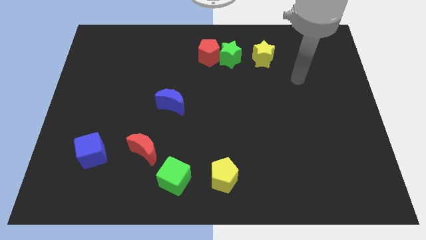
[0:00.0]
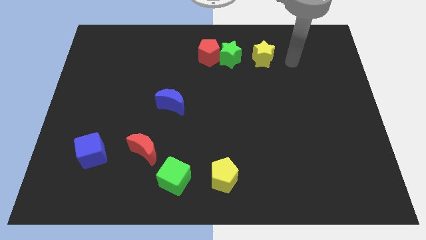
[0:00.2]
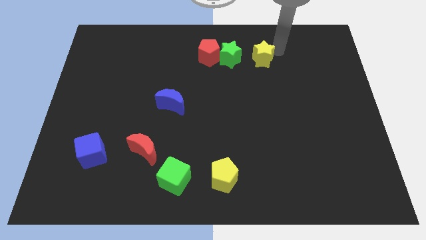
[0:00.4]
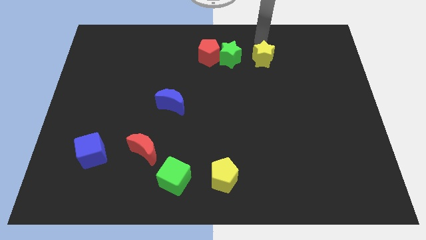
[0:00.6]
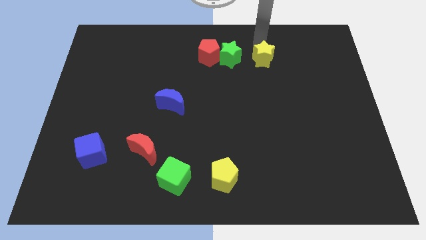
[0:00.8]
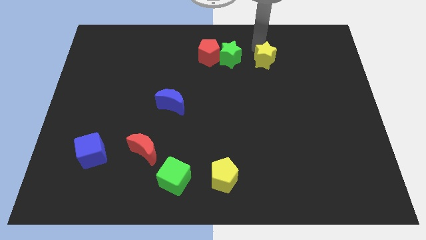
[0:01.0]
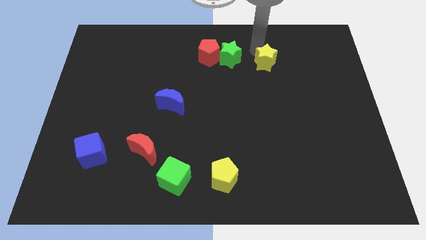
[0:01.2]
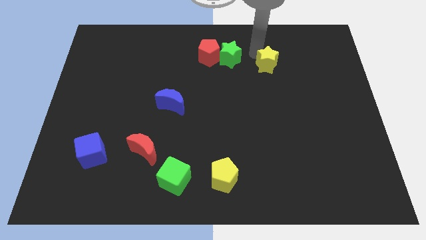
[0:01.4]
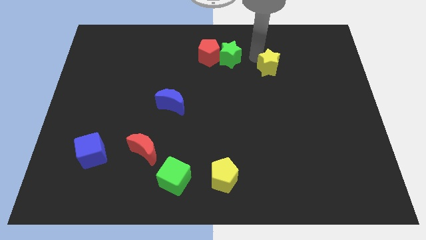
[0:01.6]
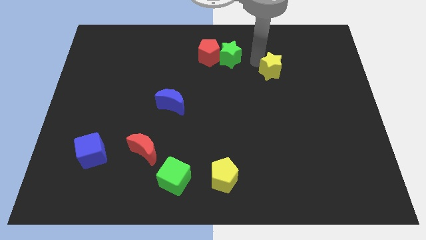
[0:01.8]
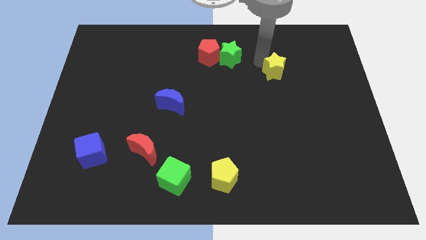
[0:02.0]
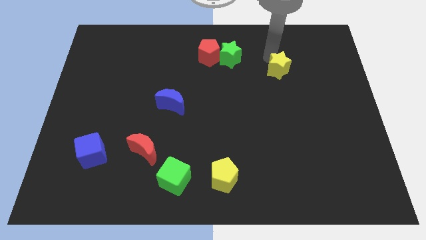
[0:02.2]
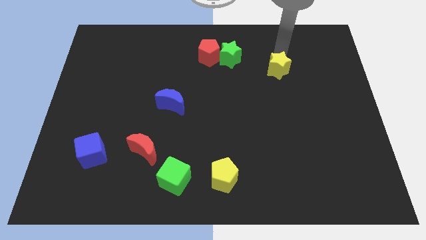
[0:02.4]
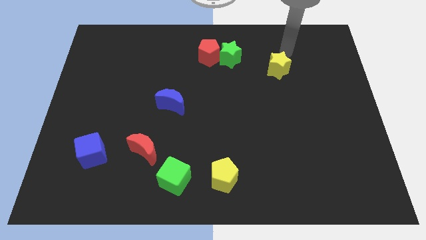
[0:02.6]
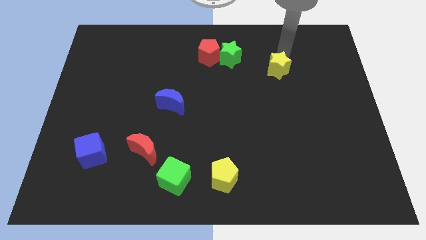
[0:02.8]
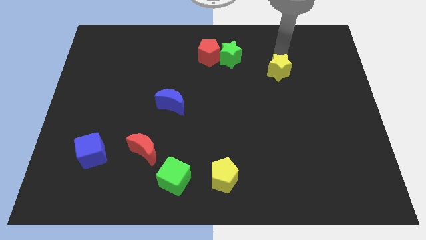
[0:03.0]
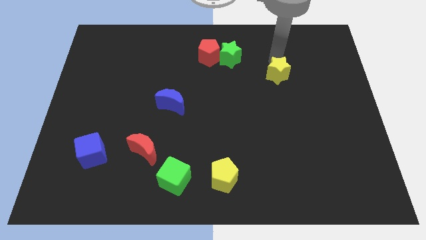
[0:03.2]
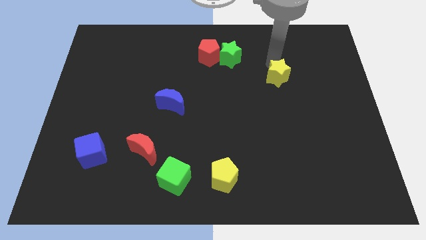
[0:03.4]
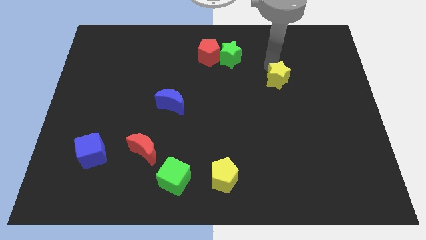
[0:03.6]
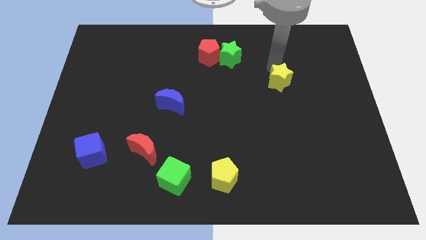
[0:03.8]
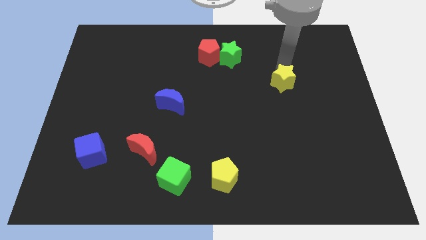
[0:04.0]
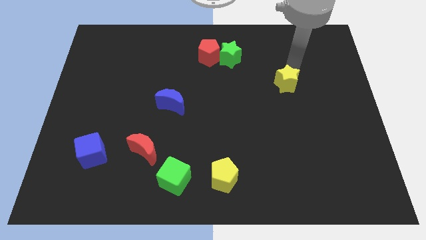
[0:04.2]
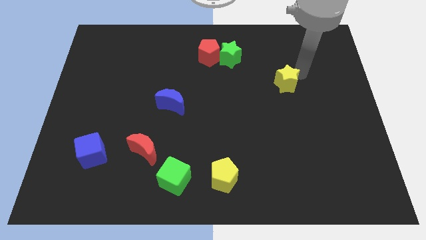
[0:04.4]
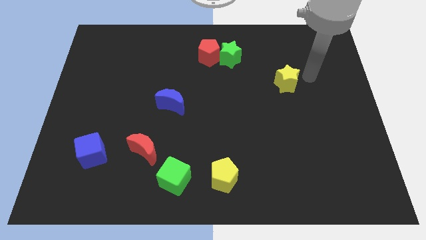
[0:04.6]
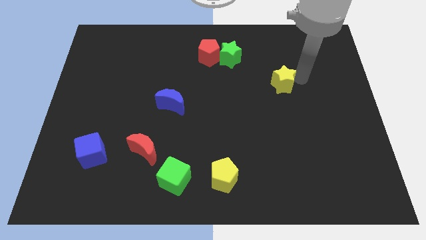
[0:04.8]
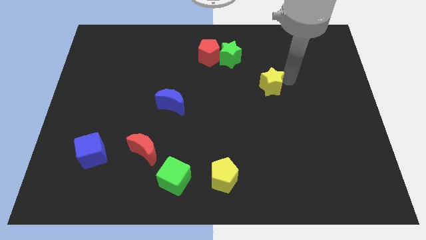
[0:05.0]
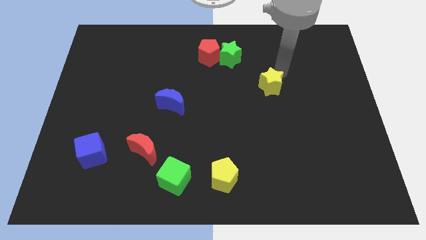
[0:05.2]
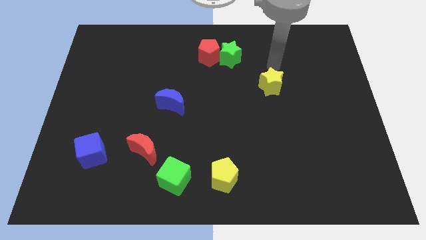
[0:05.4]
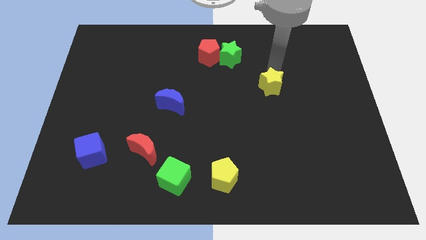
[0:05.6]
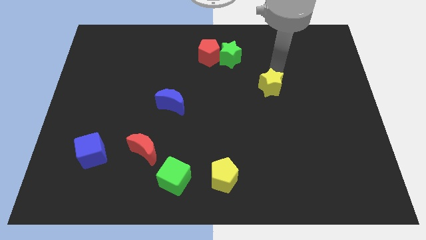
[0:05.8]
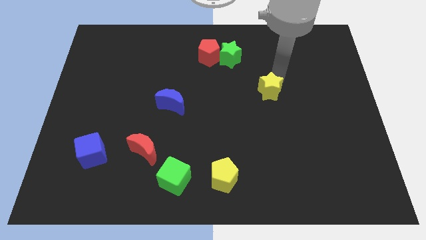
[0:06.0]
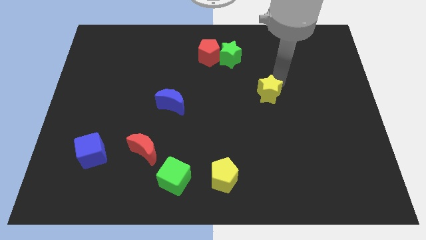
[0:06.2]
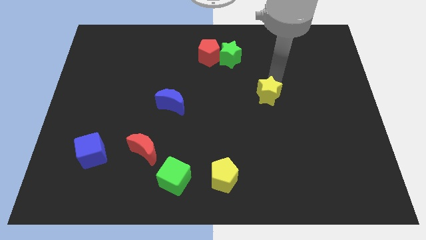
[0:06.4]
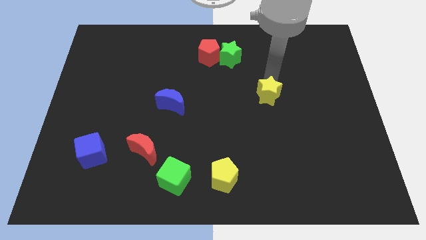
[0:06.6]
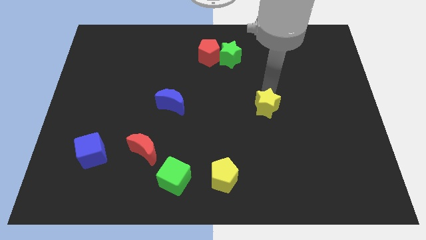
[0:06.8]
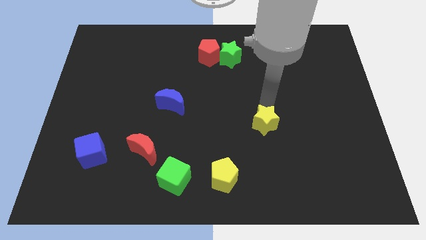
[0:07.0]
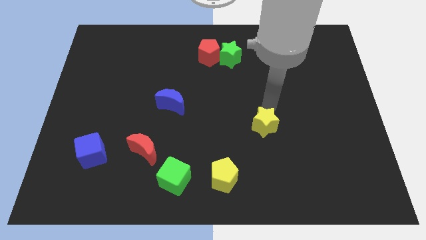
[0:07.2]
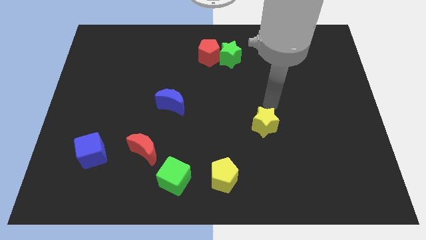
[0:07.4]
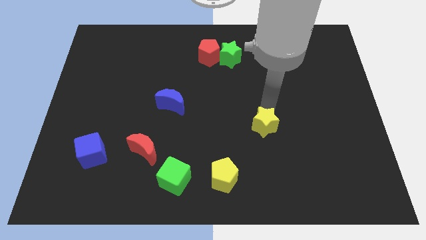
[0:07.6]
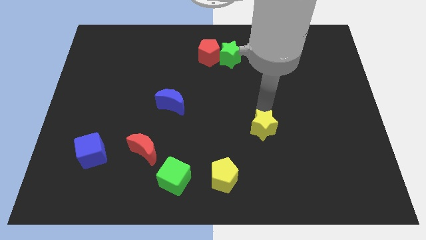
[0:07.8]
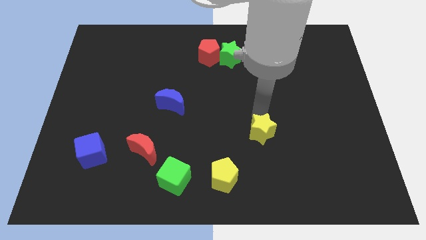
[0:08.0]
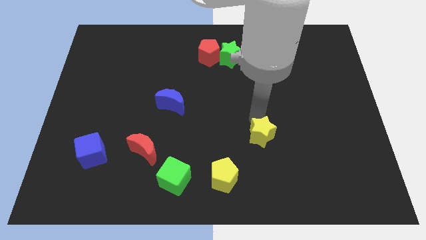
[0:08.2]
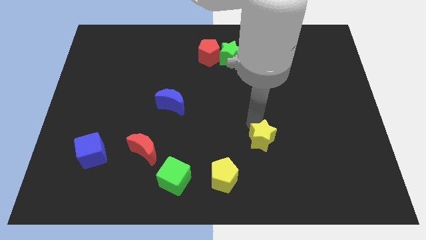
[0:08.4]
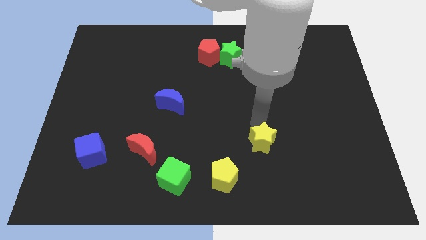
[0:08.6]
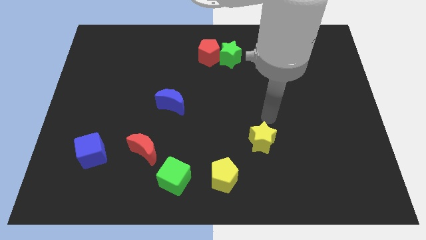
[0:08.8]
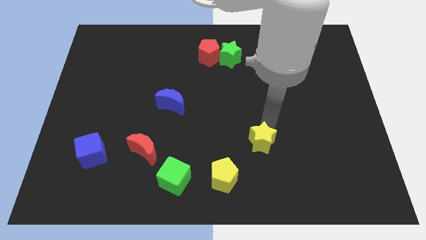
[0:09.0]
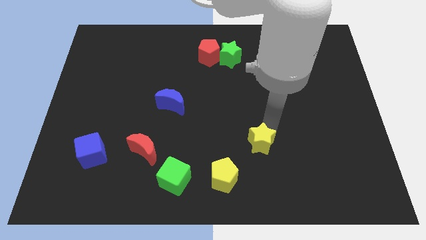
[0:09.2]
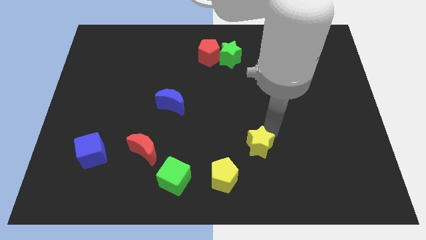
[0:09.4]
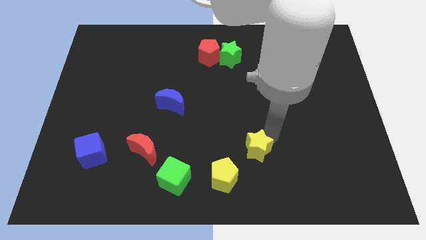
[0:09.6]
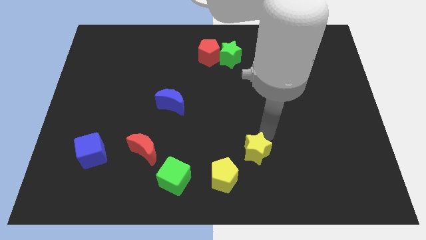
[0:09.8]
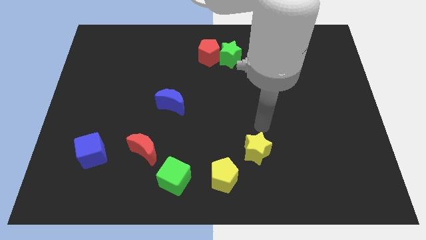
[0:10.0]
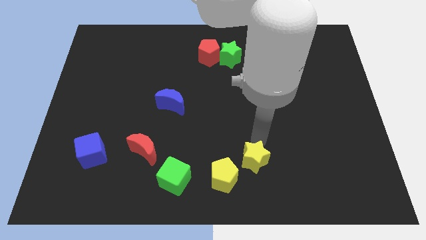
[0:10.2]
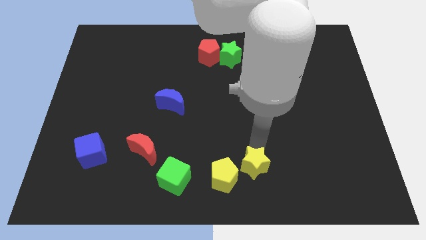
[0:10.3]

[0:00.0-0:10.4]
move the yellow star to the bottom

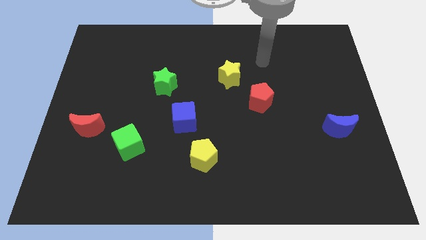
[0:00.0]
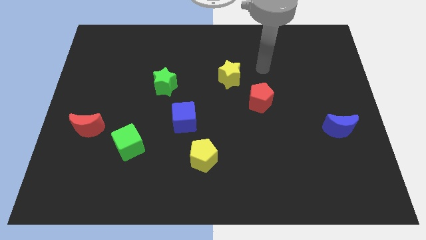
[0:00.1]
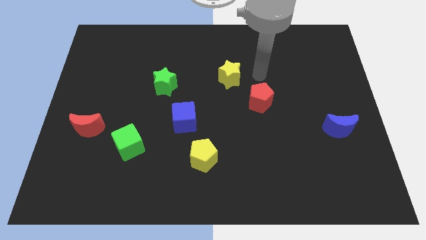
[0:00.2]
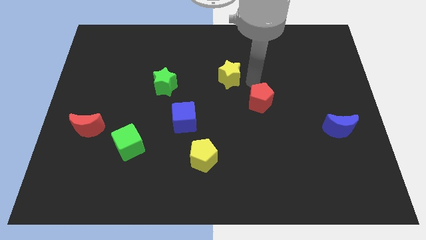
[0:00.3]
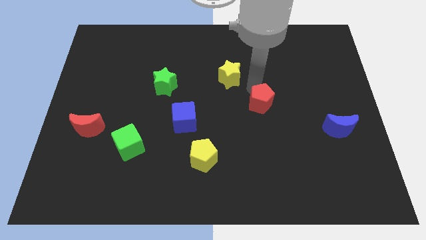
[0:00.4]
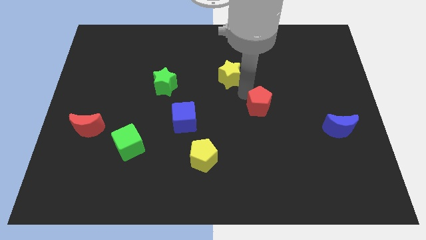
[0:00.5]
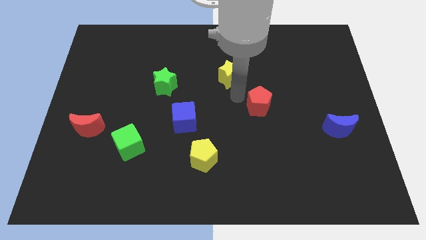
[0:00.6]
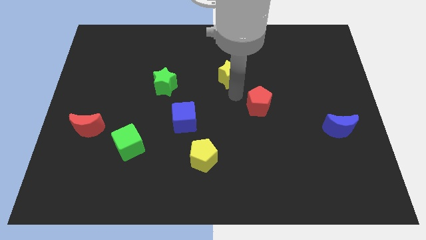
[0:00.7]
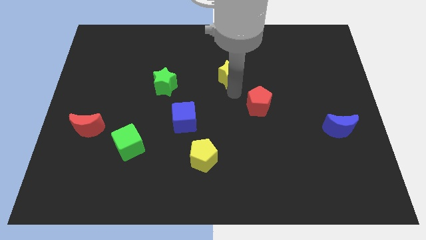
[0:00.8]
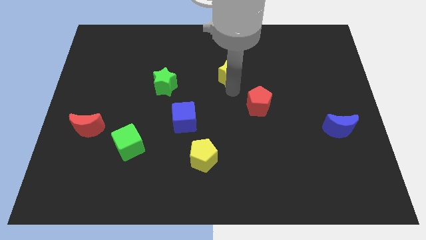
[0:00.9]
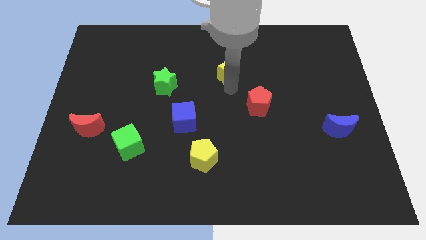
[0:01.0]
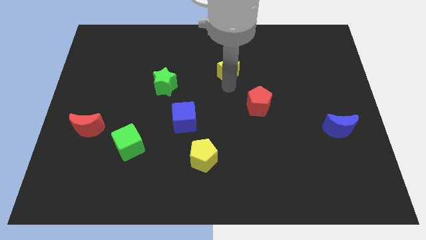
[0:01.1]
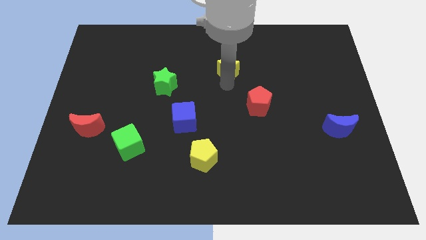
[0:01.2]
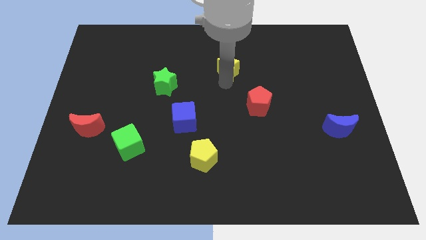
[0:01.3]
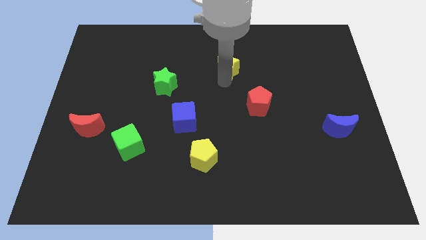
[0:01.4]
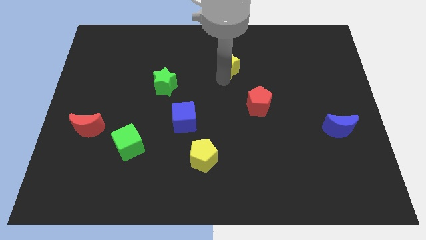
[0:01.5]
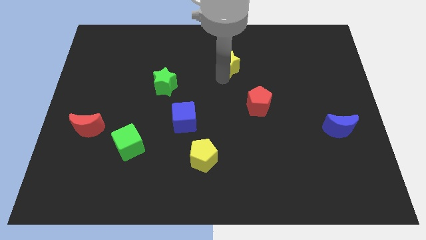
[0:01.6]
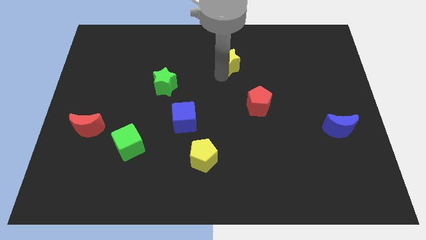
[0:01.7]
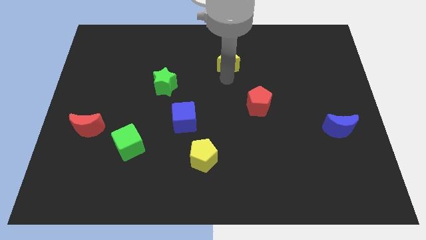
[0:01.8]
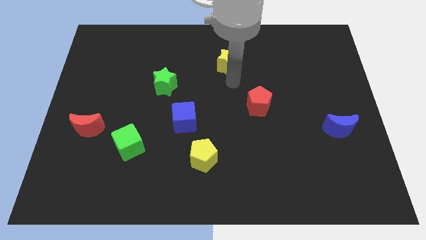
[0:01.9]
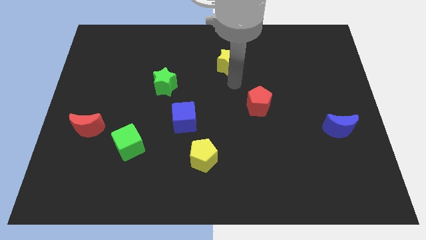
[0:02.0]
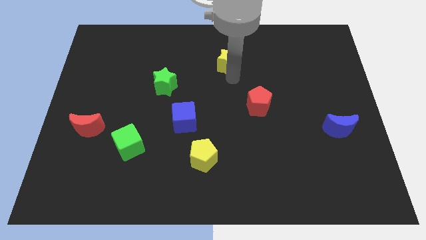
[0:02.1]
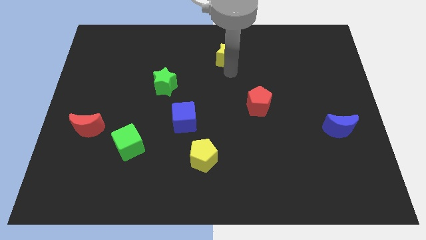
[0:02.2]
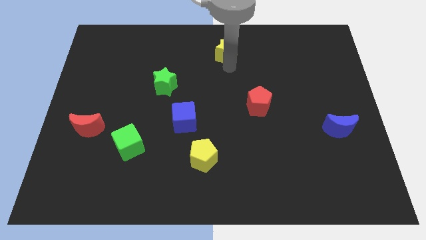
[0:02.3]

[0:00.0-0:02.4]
slide the yellow star to the towards your base
